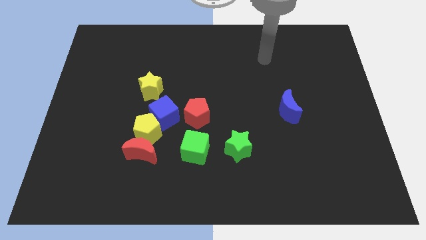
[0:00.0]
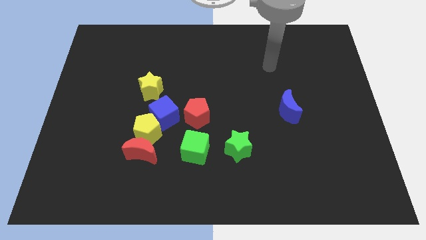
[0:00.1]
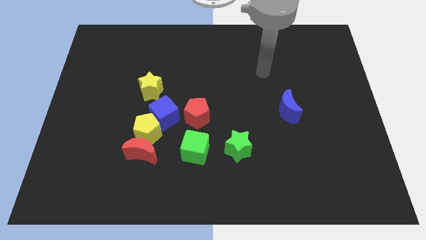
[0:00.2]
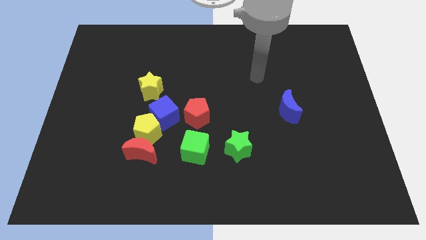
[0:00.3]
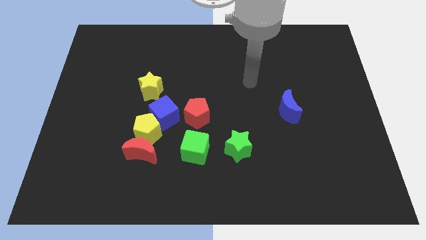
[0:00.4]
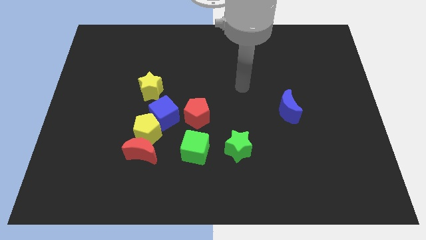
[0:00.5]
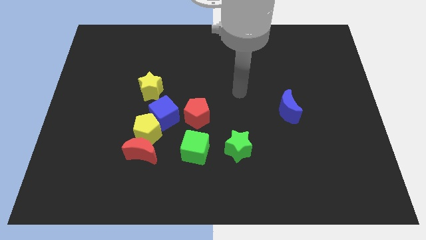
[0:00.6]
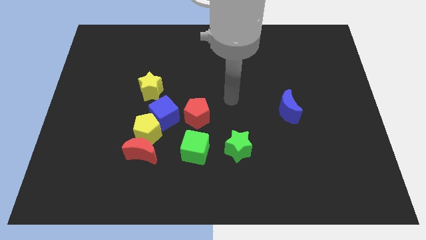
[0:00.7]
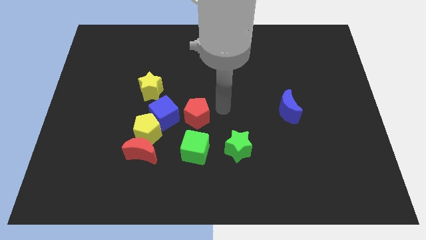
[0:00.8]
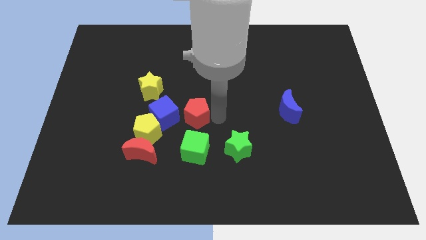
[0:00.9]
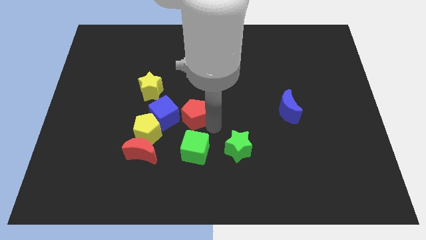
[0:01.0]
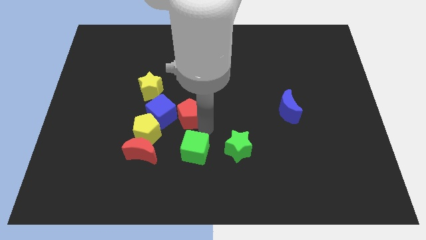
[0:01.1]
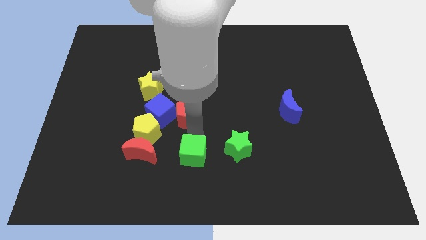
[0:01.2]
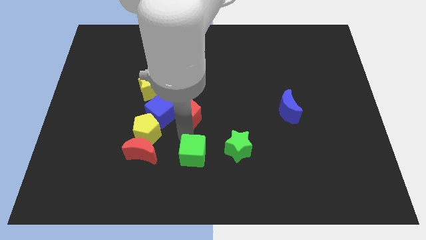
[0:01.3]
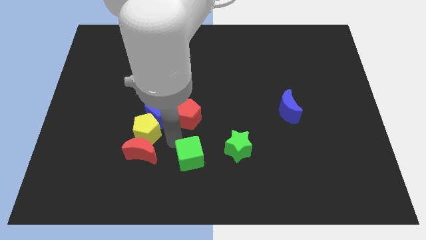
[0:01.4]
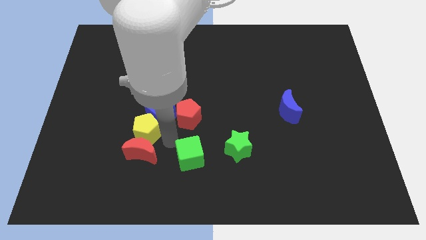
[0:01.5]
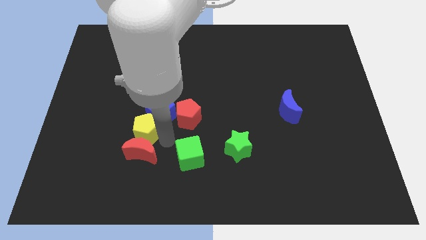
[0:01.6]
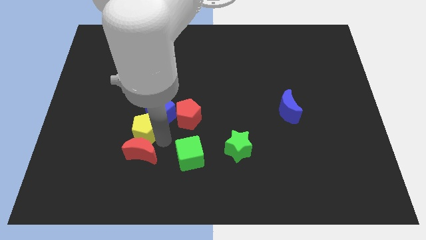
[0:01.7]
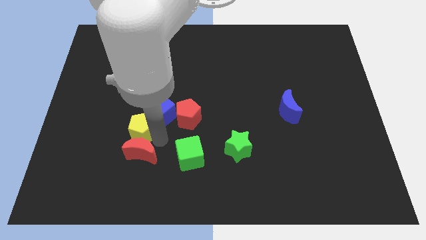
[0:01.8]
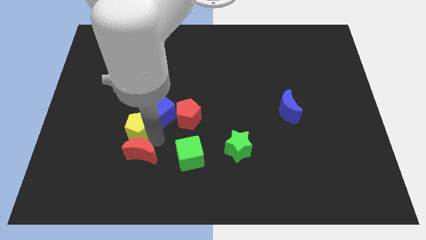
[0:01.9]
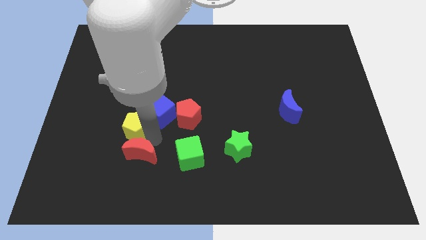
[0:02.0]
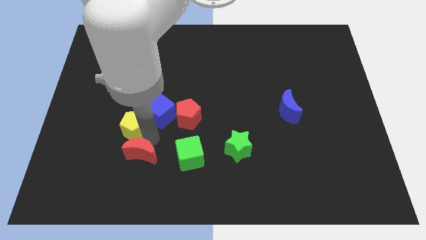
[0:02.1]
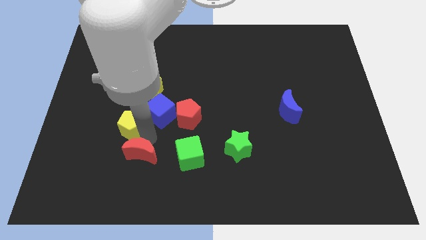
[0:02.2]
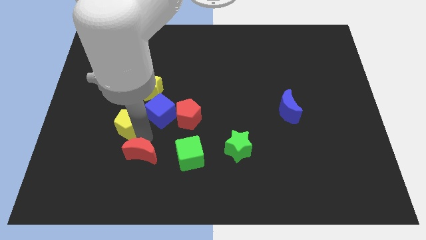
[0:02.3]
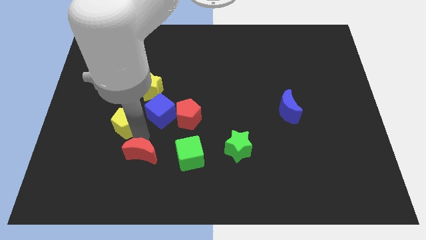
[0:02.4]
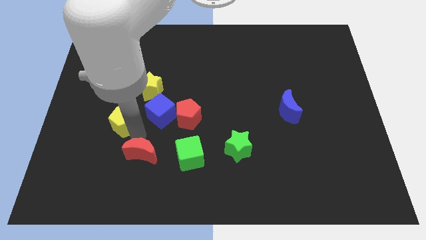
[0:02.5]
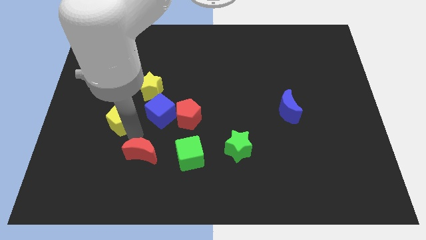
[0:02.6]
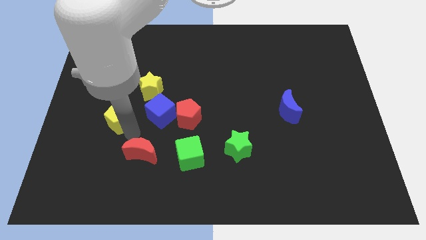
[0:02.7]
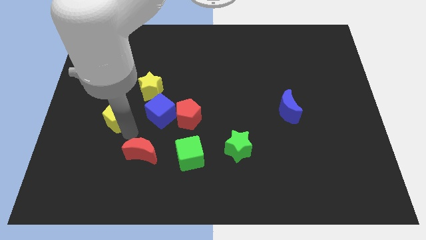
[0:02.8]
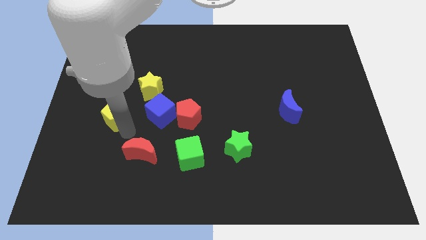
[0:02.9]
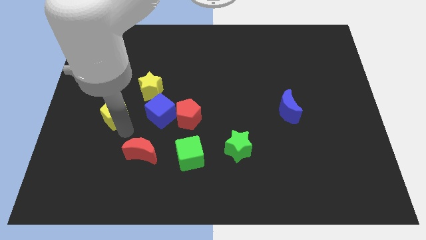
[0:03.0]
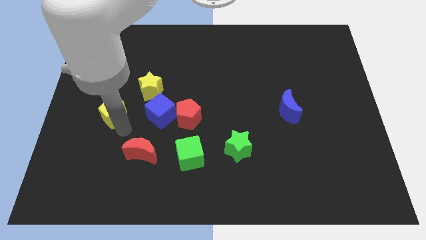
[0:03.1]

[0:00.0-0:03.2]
move the yellow pentagon away from the blue cube and red moon

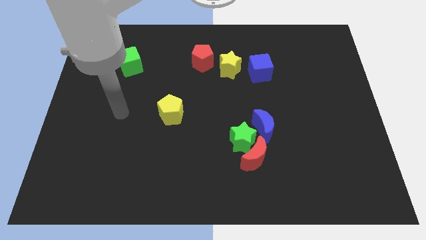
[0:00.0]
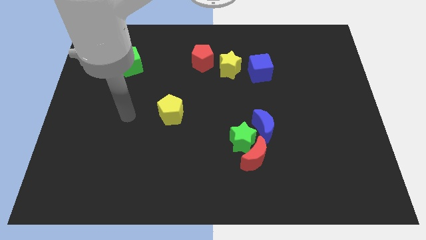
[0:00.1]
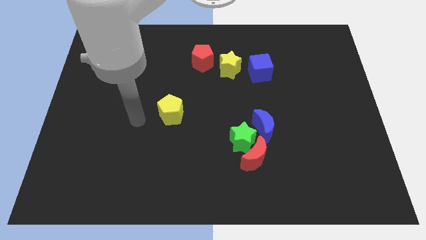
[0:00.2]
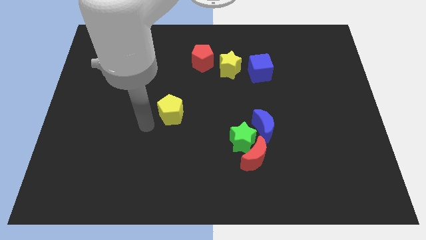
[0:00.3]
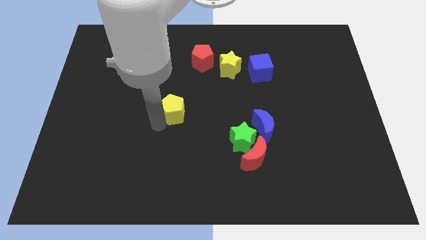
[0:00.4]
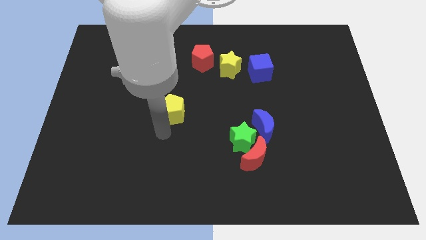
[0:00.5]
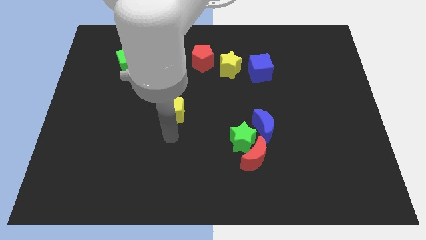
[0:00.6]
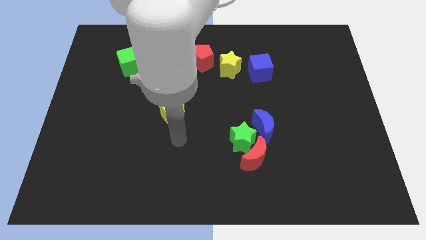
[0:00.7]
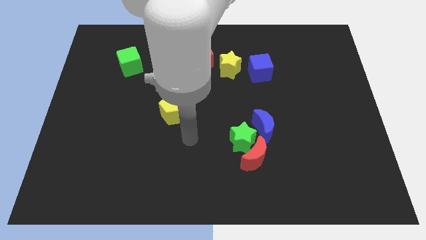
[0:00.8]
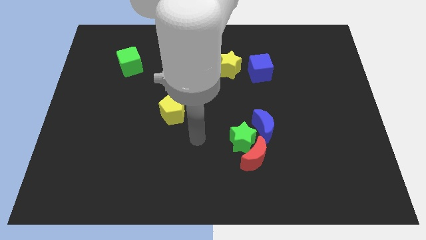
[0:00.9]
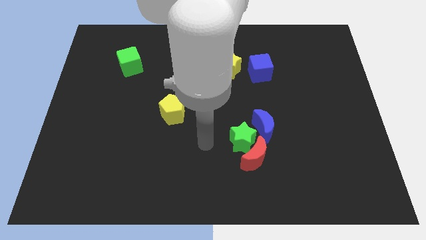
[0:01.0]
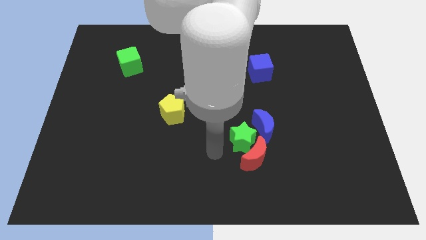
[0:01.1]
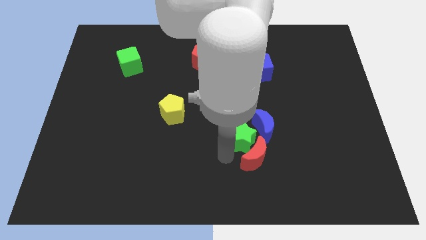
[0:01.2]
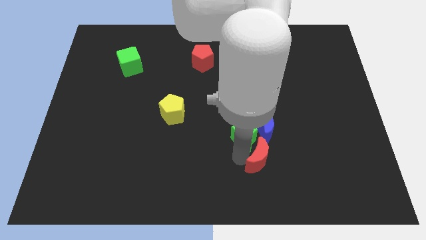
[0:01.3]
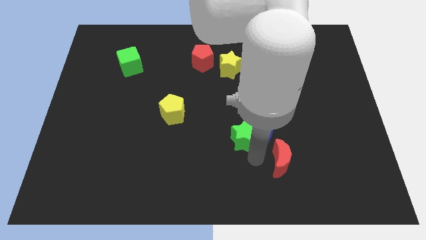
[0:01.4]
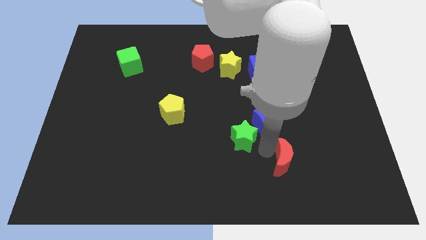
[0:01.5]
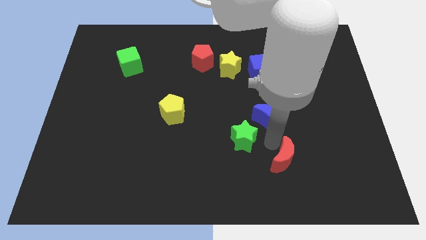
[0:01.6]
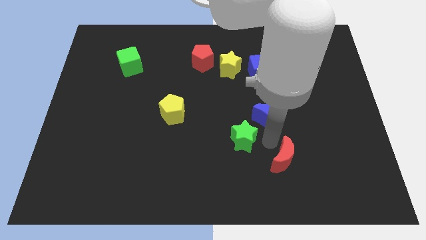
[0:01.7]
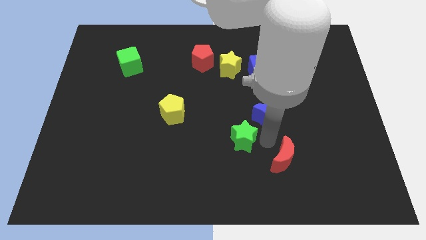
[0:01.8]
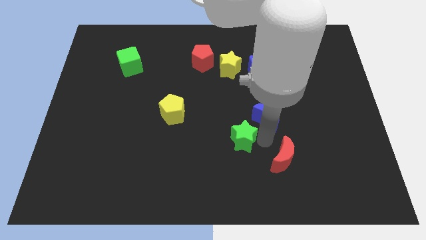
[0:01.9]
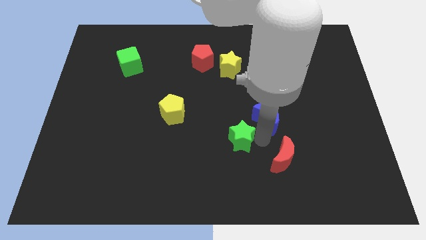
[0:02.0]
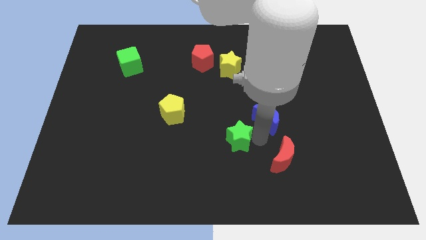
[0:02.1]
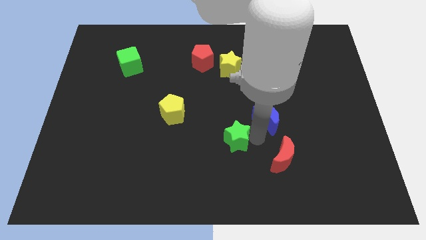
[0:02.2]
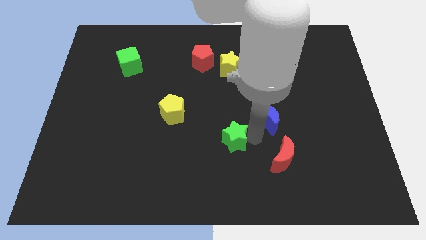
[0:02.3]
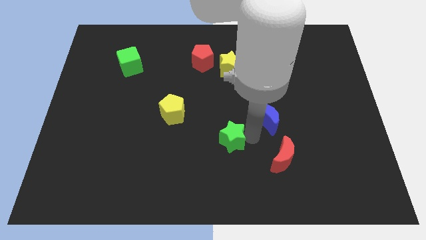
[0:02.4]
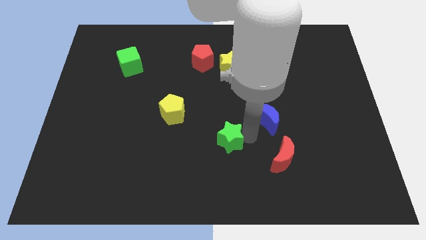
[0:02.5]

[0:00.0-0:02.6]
move the green star away from the red moon and blue moon

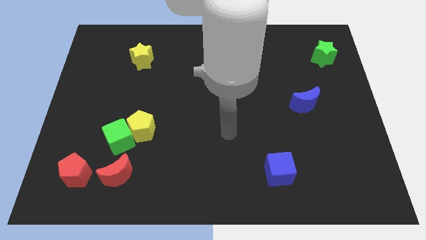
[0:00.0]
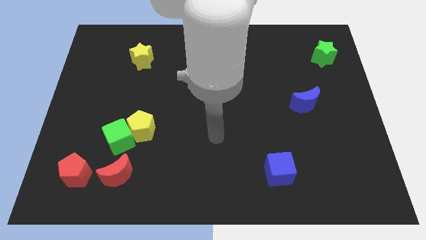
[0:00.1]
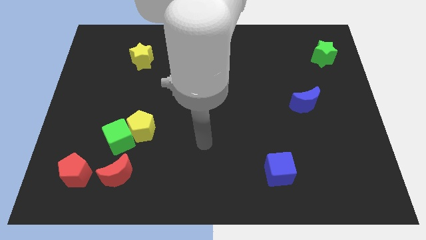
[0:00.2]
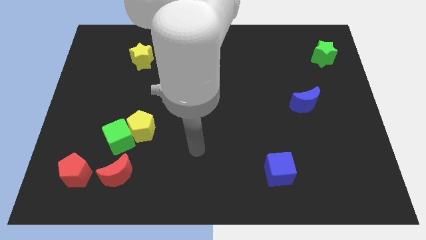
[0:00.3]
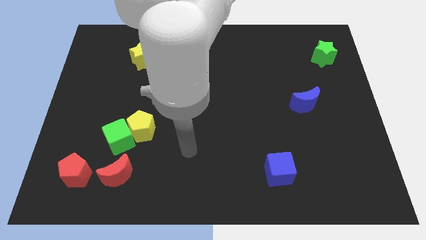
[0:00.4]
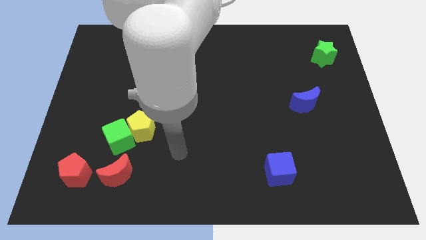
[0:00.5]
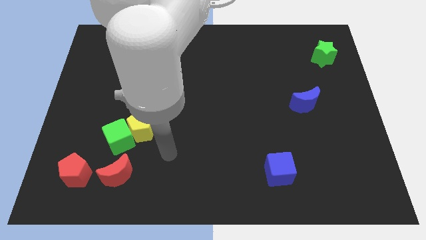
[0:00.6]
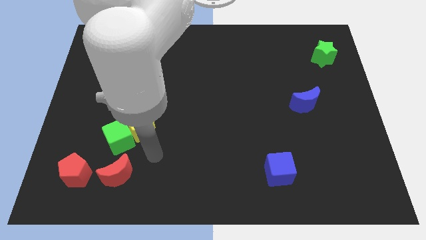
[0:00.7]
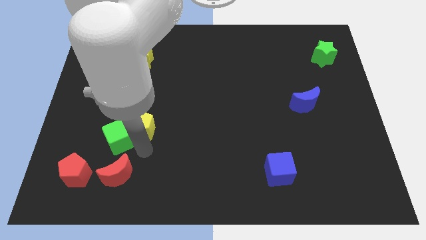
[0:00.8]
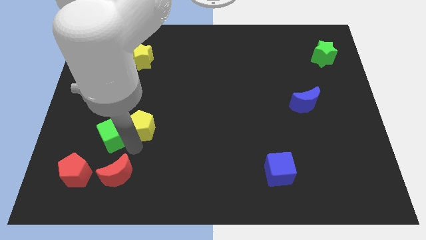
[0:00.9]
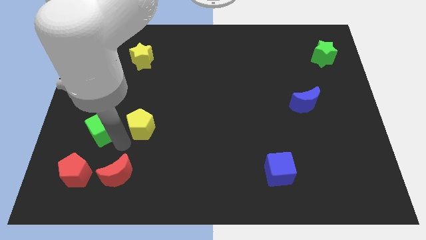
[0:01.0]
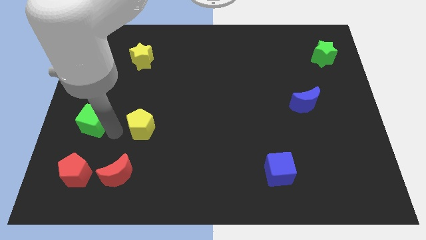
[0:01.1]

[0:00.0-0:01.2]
pull the yellow pentagon apart from the green cube

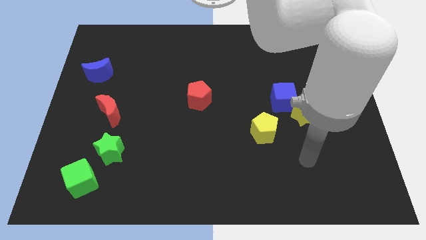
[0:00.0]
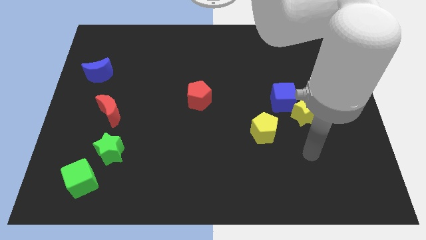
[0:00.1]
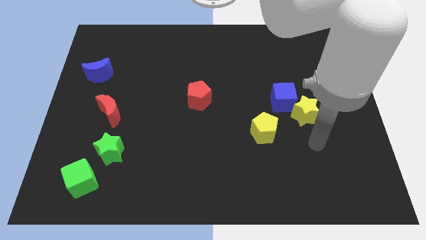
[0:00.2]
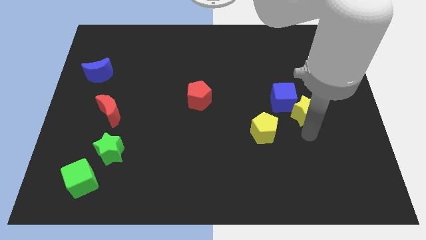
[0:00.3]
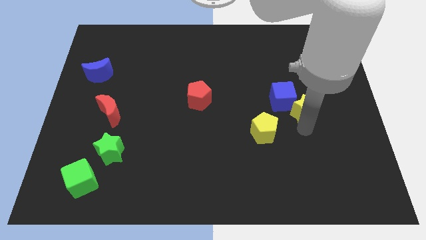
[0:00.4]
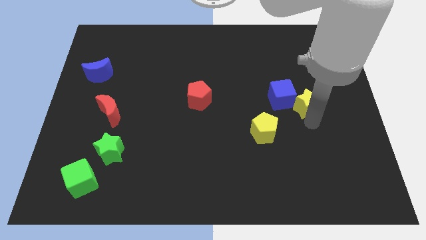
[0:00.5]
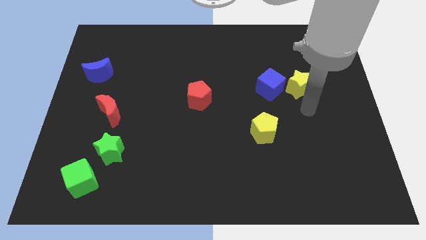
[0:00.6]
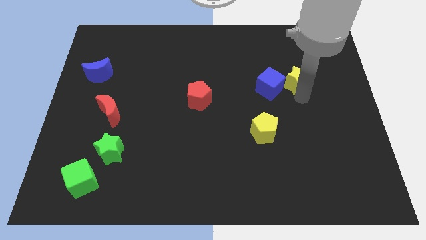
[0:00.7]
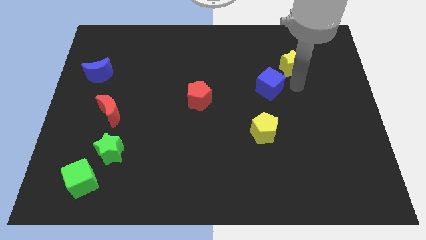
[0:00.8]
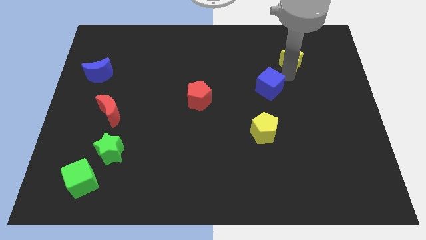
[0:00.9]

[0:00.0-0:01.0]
separate the blue cube from the yellow star

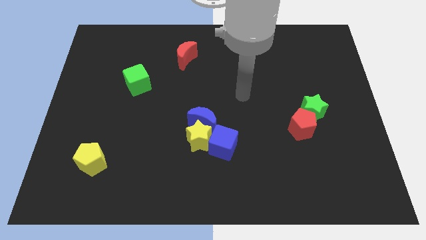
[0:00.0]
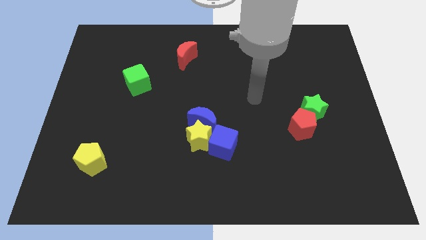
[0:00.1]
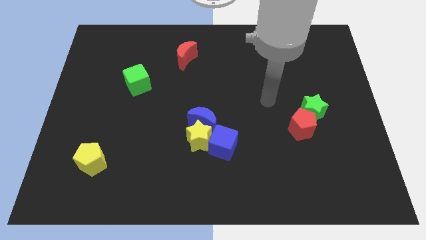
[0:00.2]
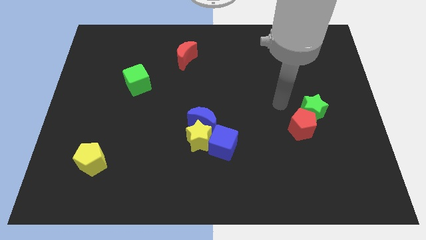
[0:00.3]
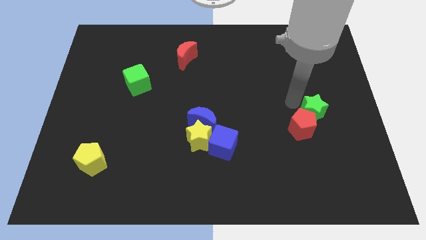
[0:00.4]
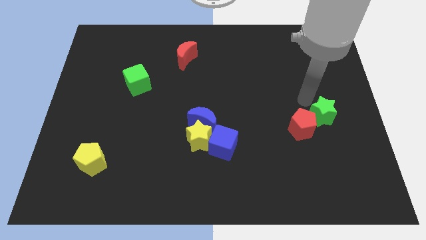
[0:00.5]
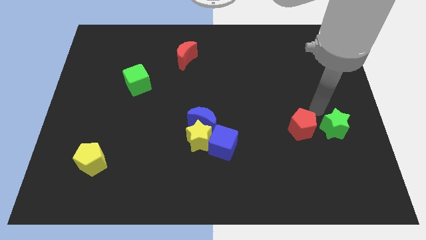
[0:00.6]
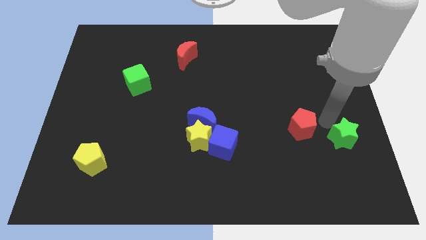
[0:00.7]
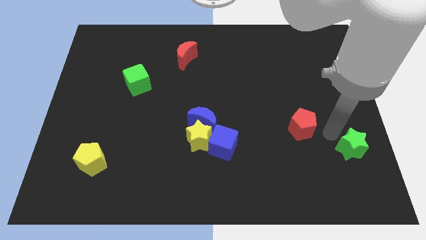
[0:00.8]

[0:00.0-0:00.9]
pull the red pentagon apart from the green star

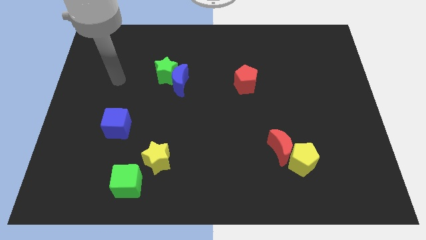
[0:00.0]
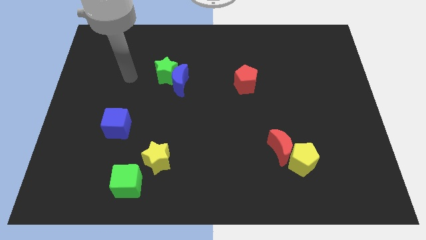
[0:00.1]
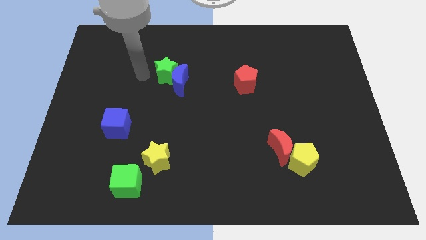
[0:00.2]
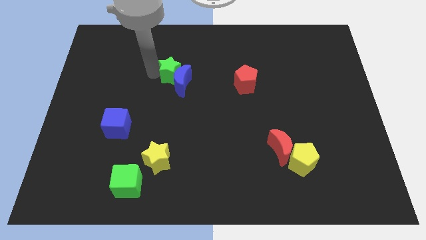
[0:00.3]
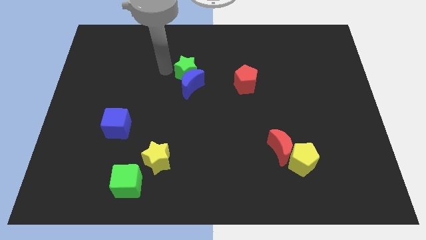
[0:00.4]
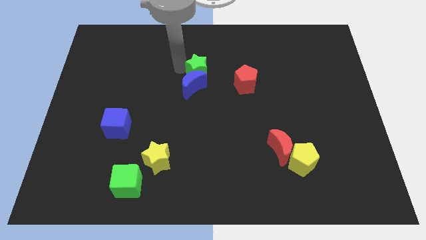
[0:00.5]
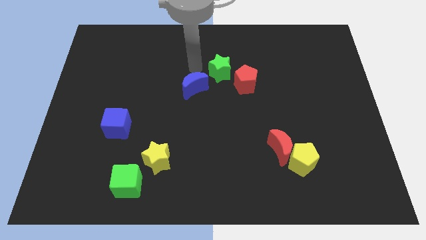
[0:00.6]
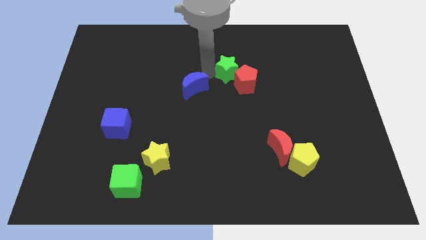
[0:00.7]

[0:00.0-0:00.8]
pull the blue moon apart from the green star
